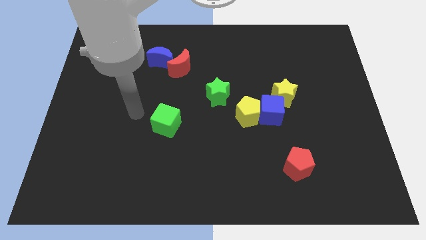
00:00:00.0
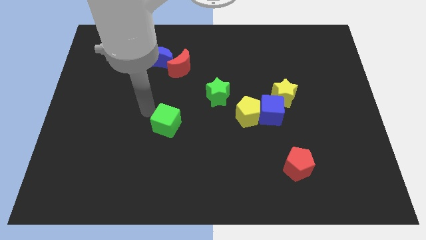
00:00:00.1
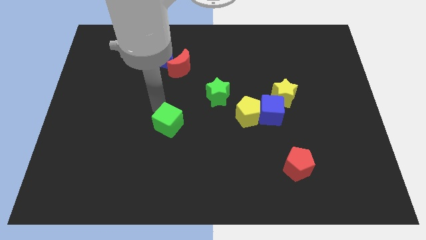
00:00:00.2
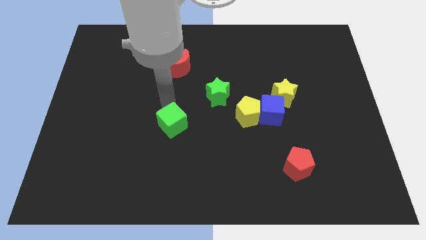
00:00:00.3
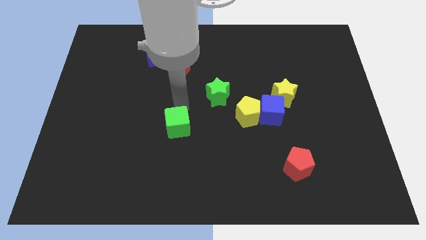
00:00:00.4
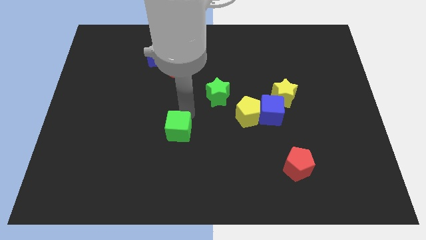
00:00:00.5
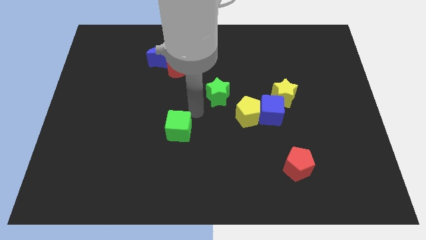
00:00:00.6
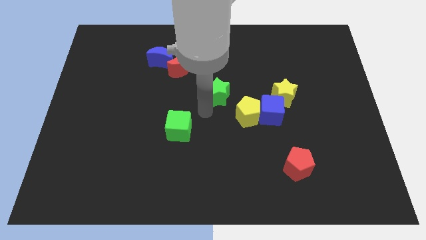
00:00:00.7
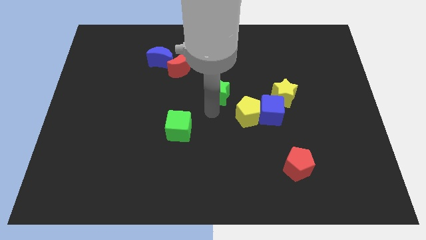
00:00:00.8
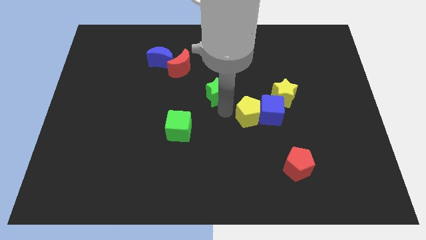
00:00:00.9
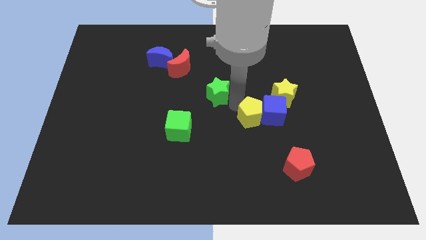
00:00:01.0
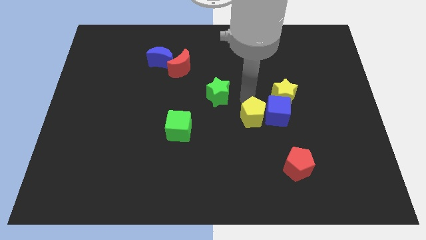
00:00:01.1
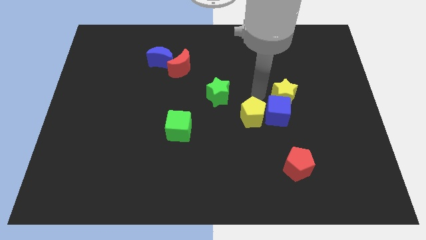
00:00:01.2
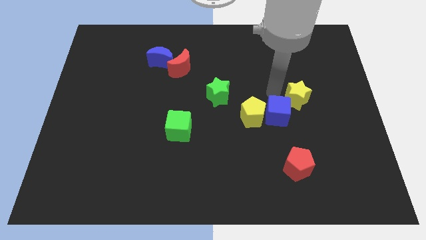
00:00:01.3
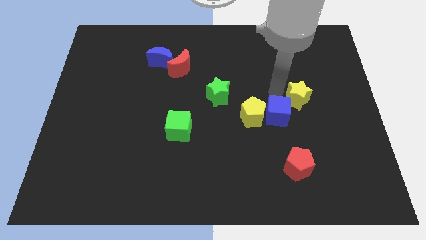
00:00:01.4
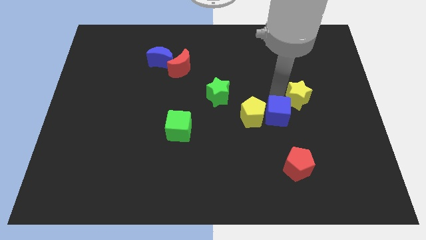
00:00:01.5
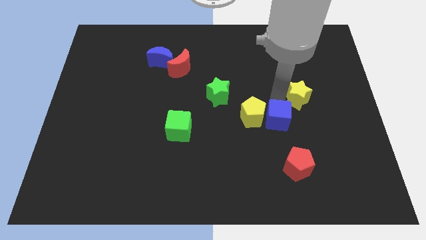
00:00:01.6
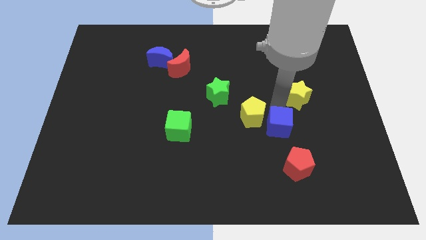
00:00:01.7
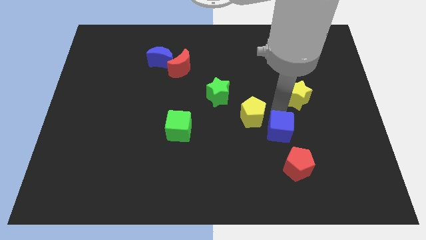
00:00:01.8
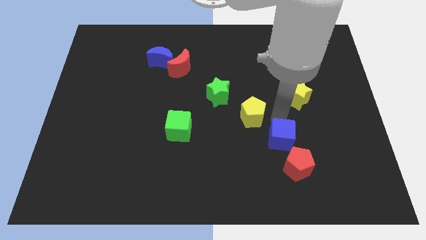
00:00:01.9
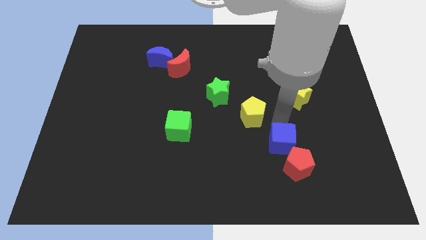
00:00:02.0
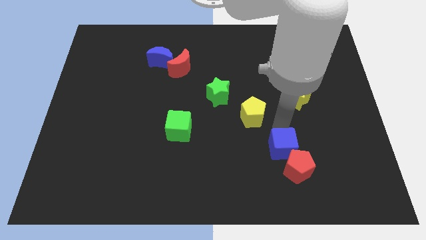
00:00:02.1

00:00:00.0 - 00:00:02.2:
move the blue cube away from the yellow pentagon and yellow star

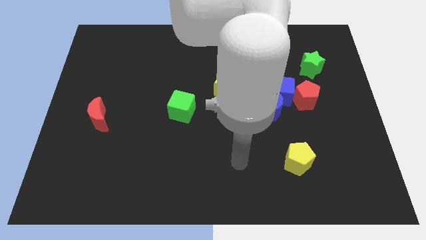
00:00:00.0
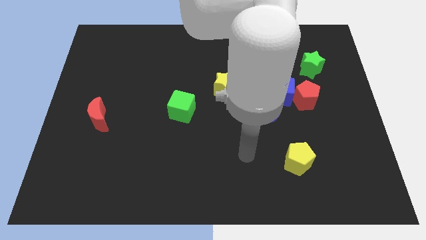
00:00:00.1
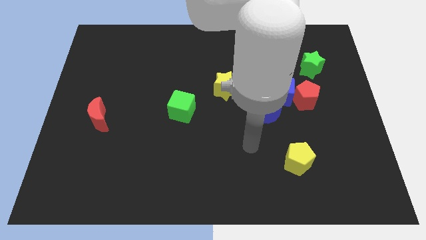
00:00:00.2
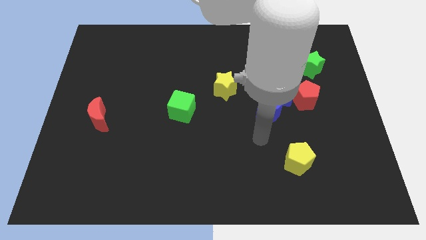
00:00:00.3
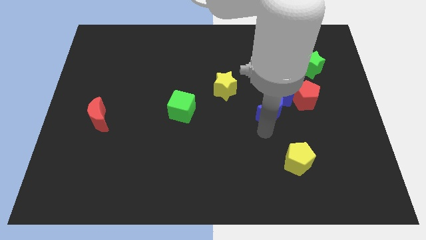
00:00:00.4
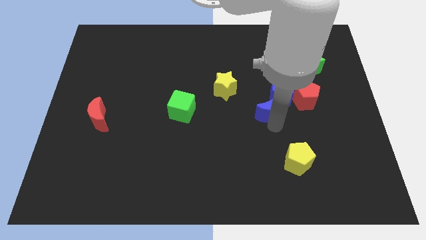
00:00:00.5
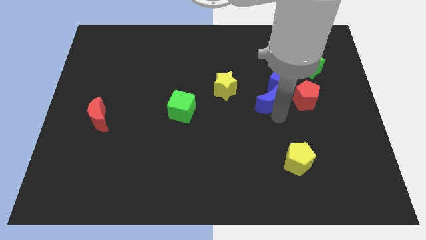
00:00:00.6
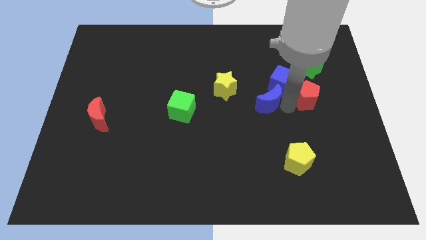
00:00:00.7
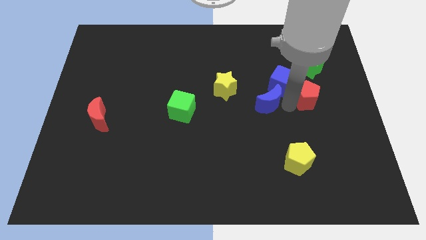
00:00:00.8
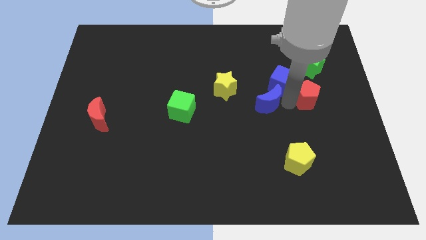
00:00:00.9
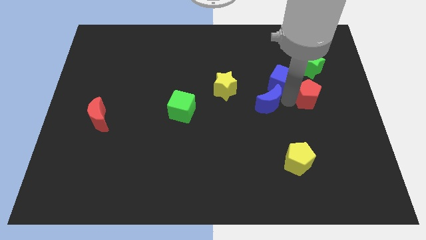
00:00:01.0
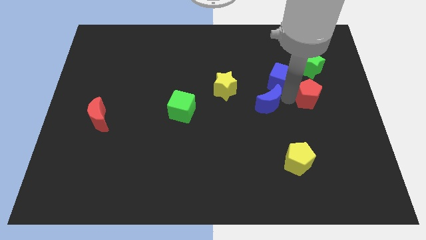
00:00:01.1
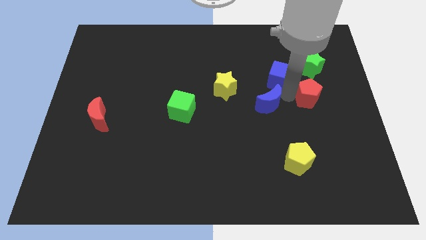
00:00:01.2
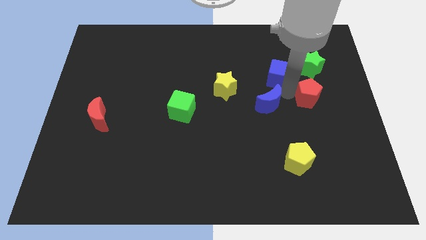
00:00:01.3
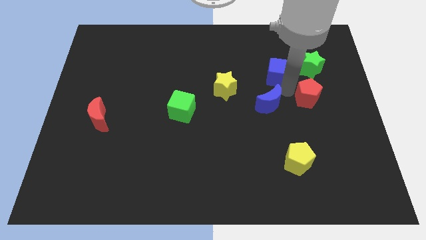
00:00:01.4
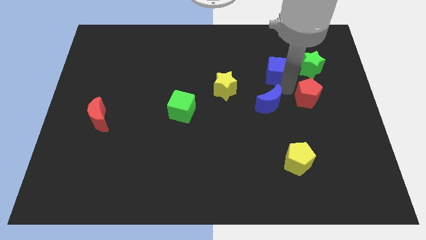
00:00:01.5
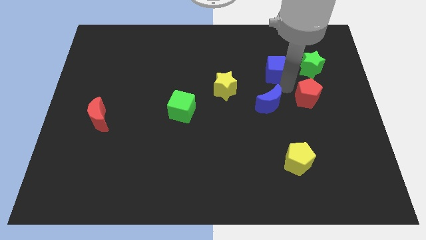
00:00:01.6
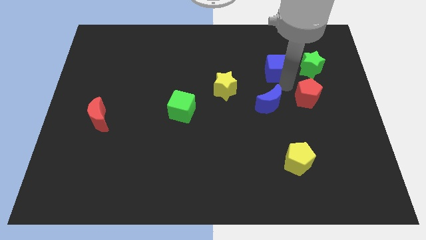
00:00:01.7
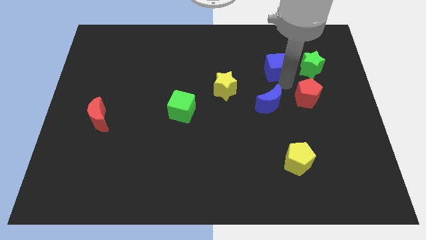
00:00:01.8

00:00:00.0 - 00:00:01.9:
pull the blue cube apart from the red pentagon and blue moon

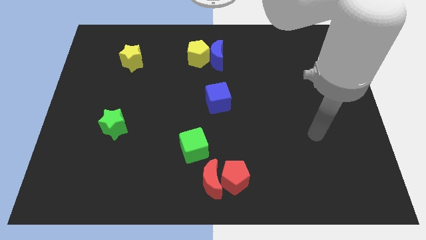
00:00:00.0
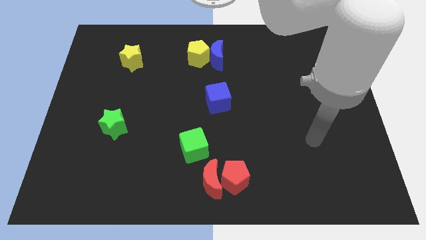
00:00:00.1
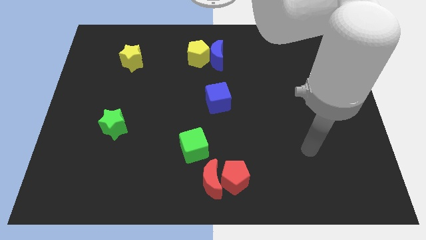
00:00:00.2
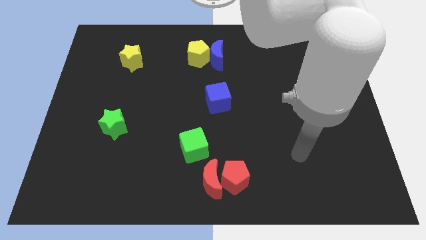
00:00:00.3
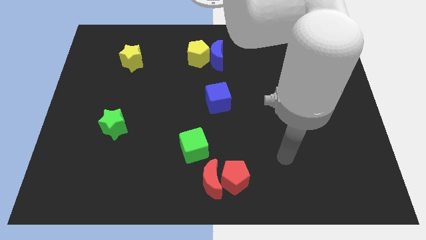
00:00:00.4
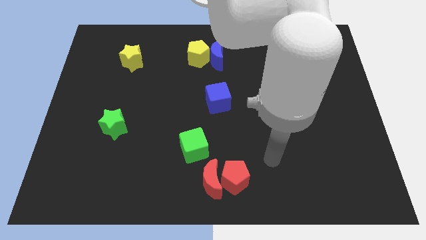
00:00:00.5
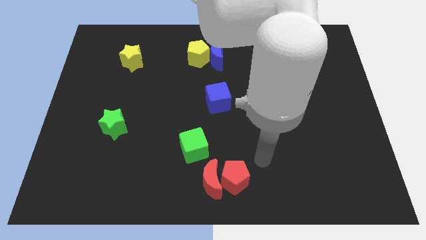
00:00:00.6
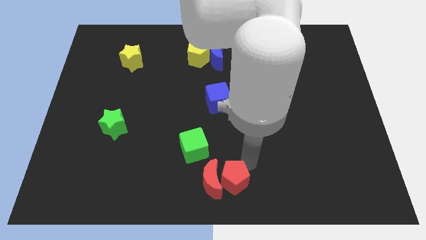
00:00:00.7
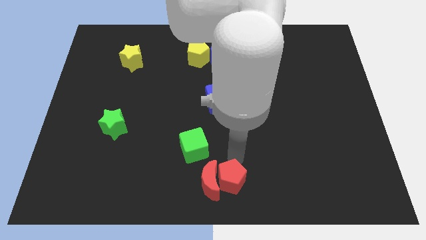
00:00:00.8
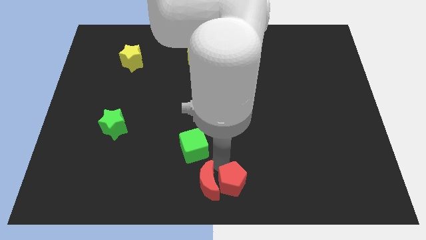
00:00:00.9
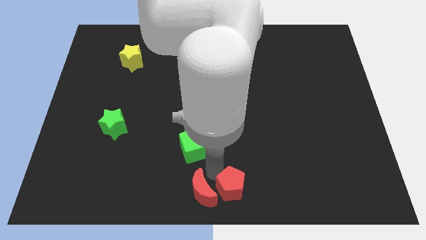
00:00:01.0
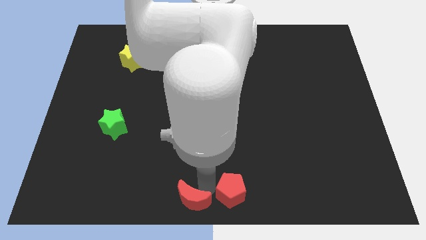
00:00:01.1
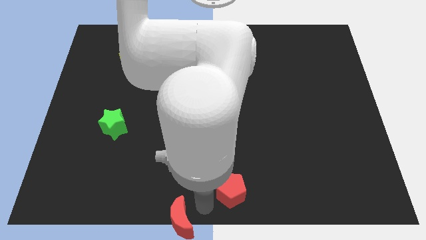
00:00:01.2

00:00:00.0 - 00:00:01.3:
separate the red pentagon from the red moon

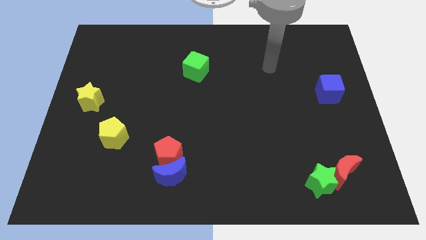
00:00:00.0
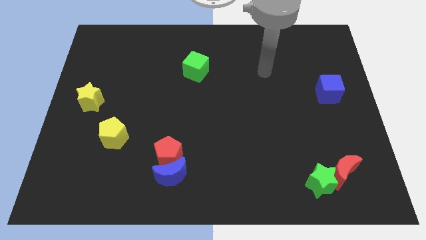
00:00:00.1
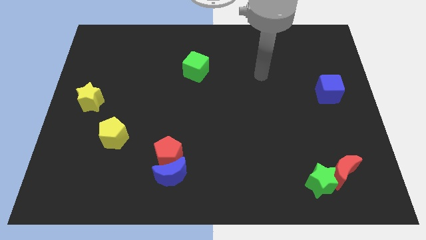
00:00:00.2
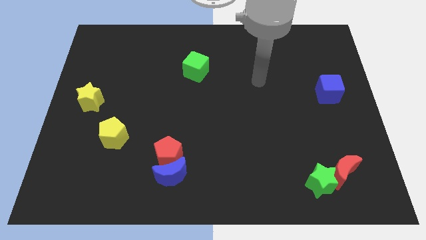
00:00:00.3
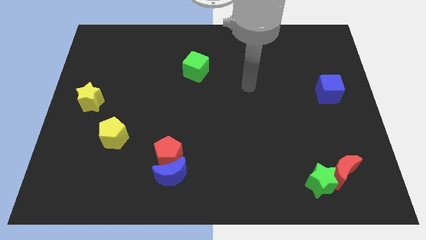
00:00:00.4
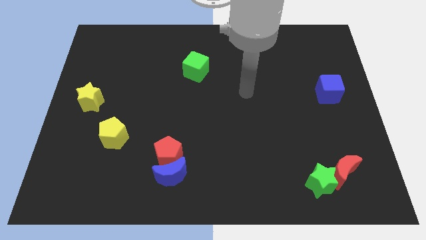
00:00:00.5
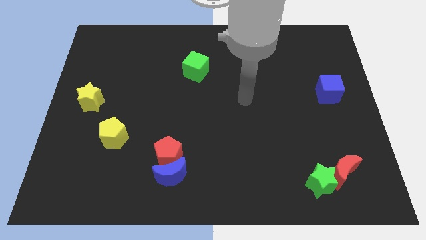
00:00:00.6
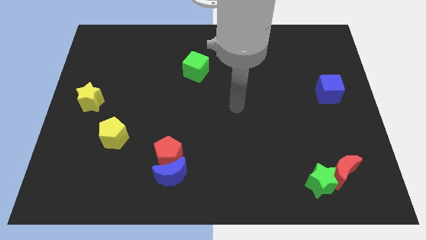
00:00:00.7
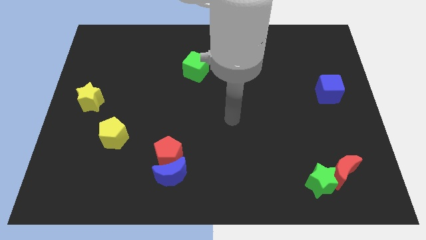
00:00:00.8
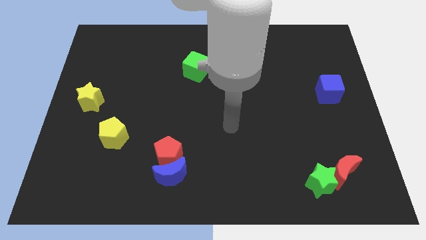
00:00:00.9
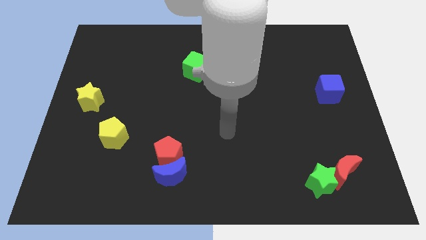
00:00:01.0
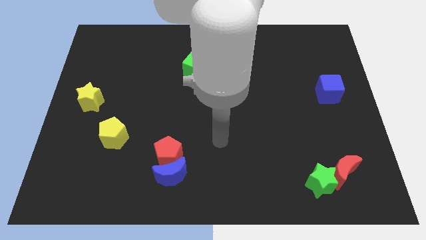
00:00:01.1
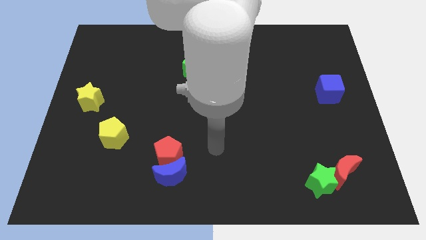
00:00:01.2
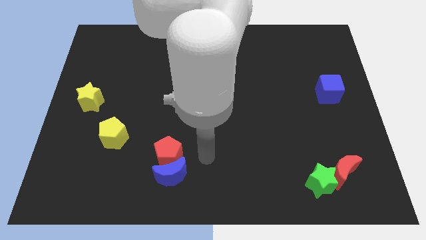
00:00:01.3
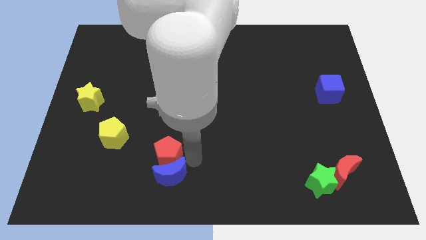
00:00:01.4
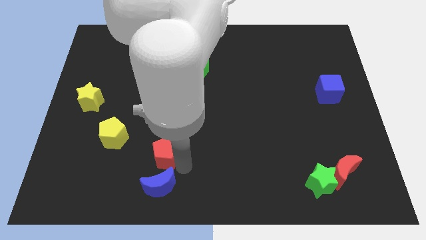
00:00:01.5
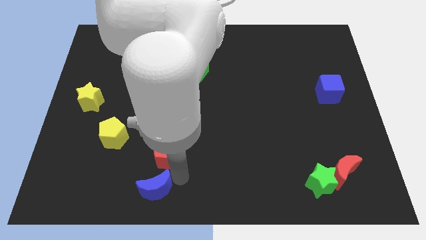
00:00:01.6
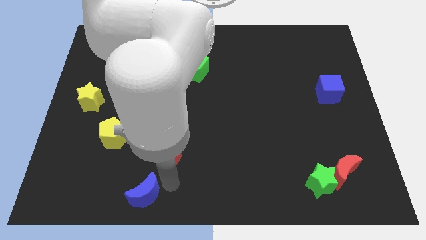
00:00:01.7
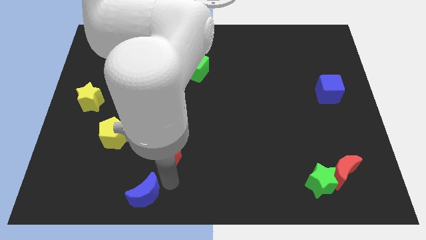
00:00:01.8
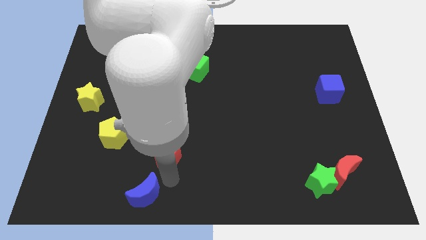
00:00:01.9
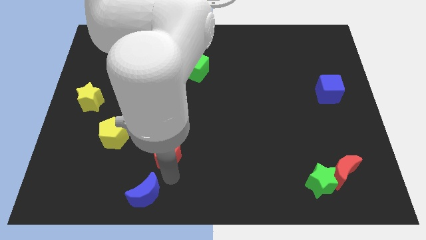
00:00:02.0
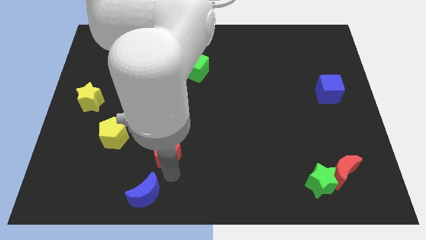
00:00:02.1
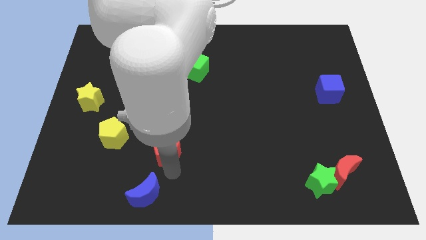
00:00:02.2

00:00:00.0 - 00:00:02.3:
move the red pentagon away from the blue moon

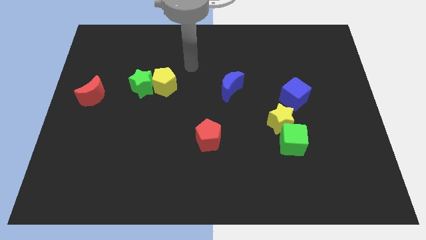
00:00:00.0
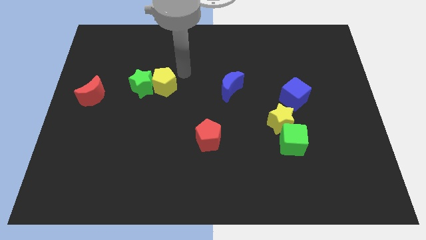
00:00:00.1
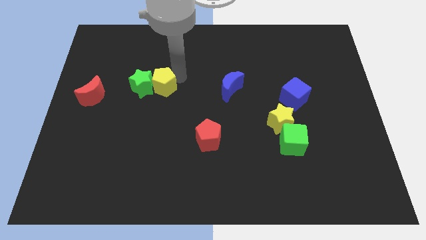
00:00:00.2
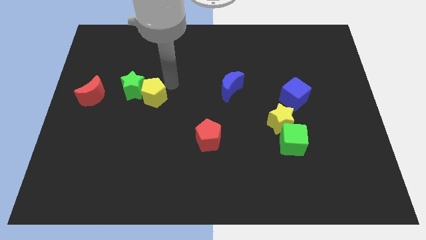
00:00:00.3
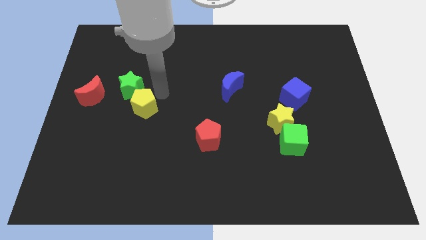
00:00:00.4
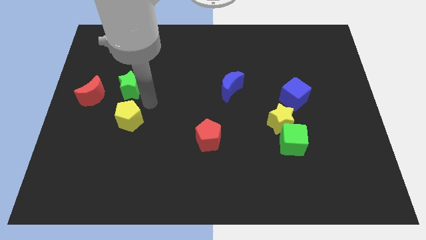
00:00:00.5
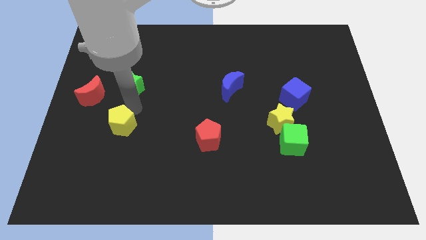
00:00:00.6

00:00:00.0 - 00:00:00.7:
move the green star away from the yellow pentagon

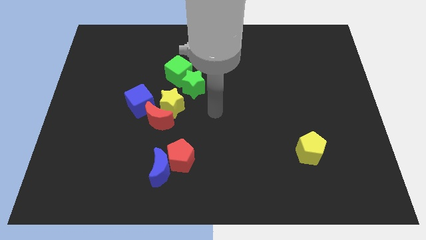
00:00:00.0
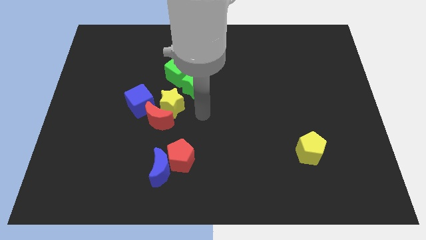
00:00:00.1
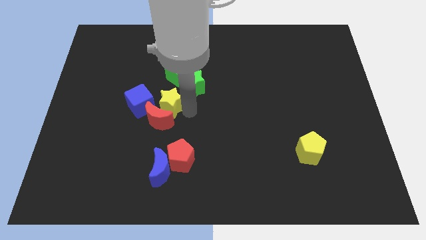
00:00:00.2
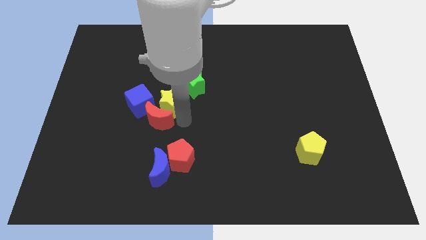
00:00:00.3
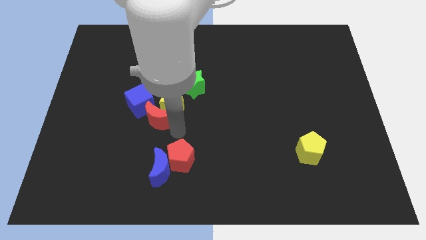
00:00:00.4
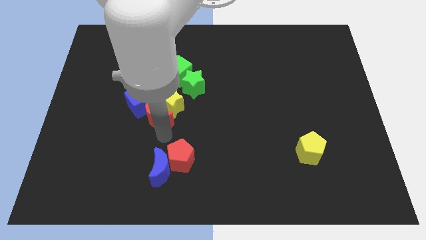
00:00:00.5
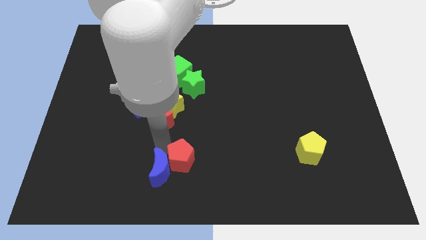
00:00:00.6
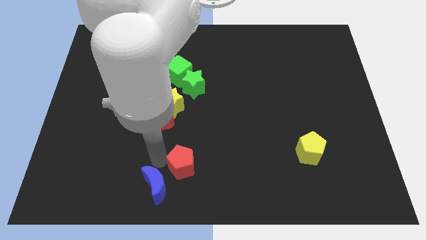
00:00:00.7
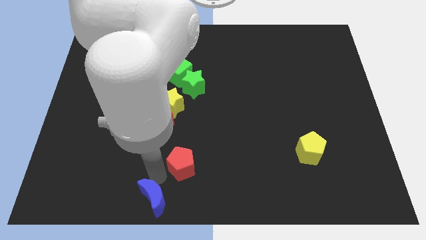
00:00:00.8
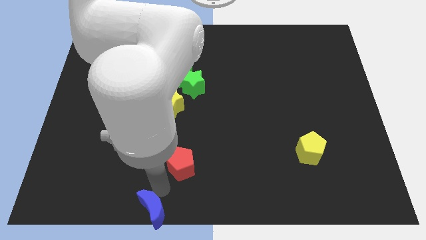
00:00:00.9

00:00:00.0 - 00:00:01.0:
separate the red pentagon from the blue moon
